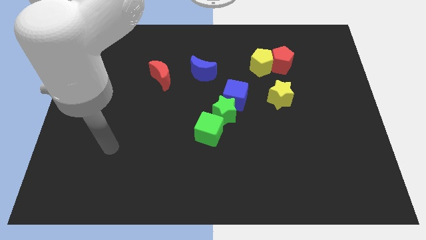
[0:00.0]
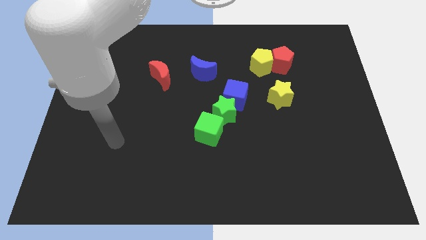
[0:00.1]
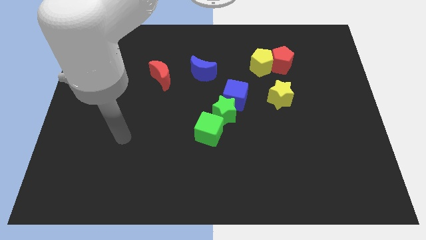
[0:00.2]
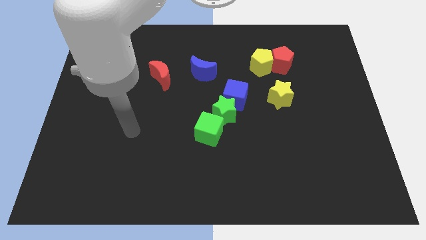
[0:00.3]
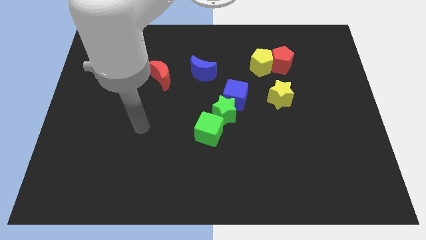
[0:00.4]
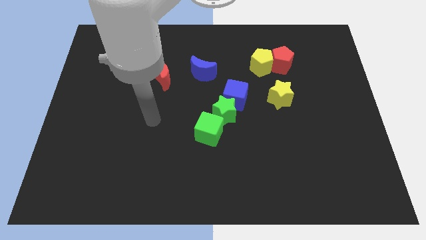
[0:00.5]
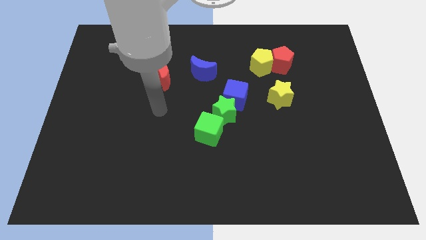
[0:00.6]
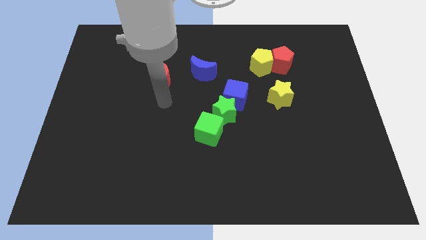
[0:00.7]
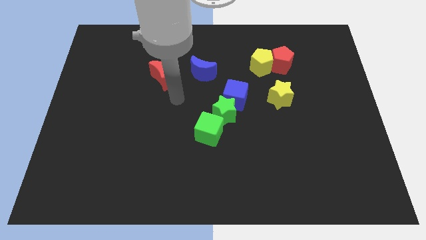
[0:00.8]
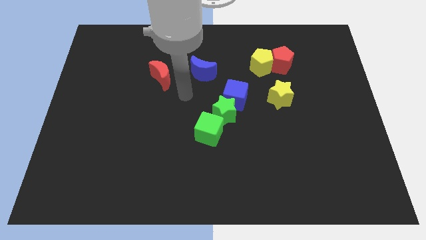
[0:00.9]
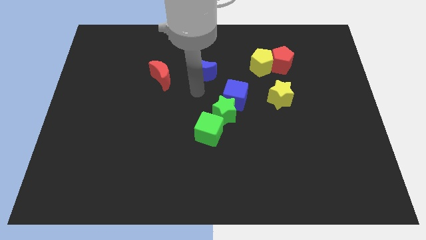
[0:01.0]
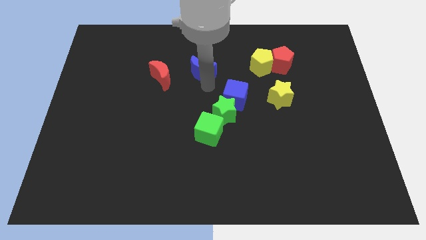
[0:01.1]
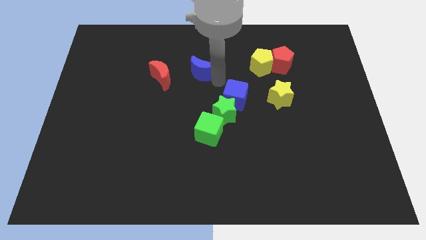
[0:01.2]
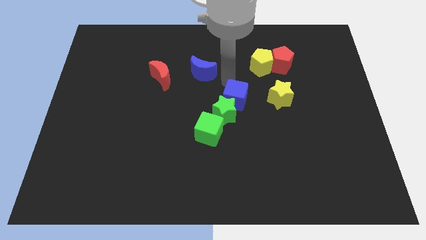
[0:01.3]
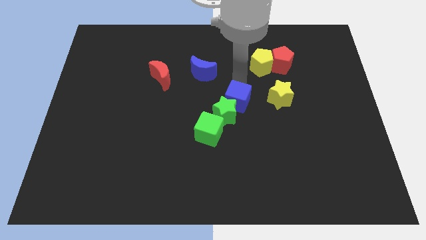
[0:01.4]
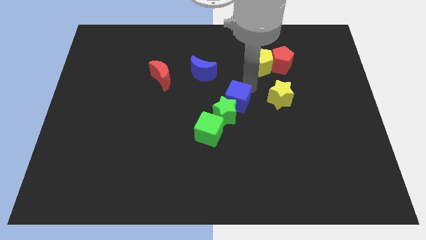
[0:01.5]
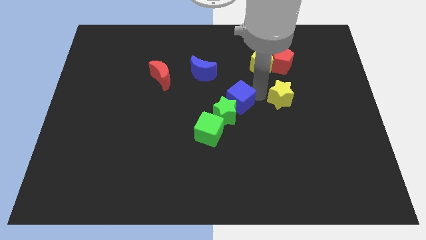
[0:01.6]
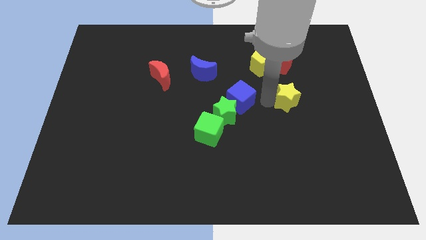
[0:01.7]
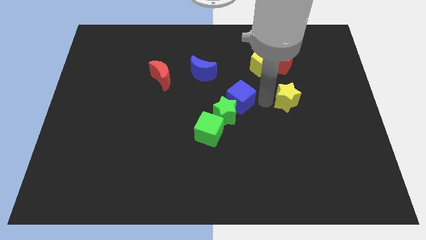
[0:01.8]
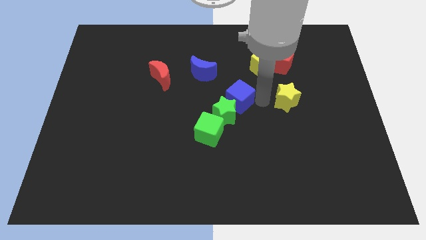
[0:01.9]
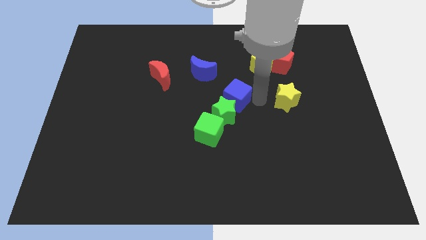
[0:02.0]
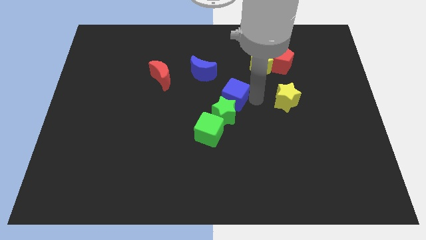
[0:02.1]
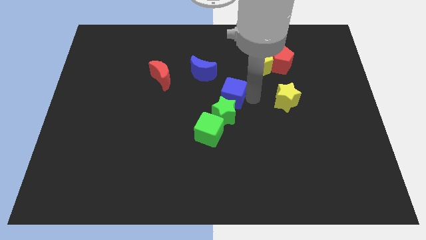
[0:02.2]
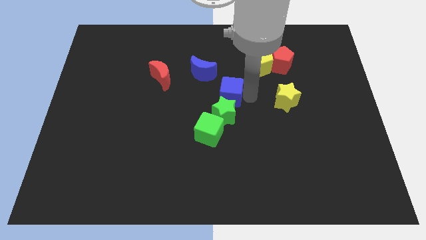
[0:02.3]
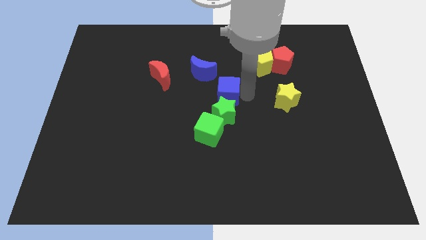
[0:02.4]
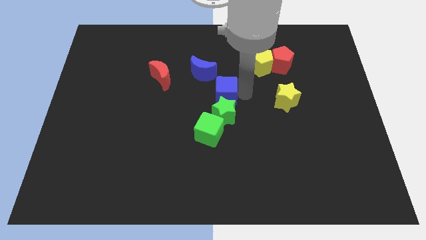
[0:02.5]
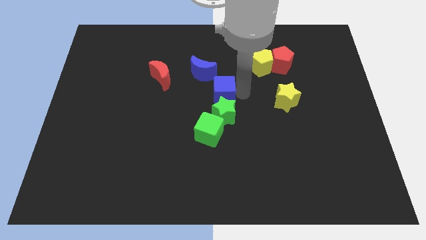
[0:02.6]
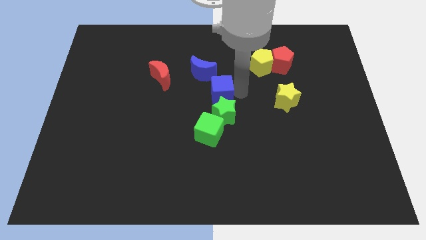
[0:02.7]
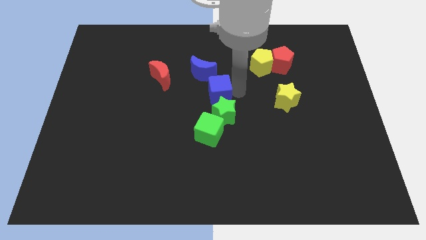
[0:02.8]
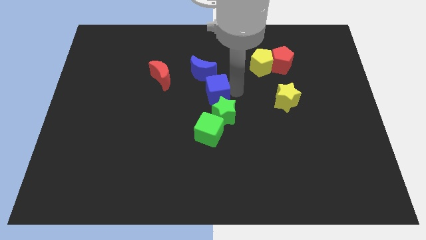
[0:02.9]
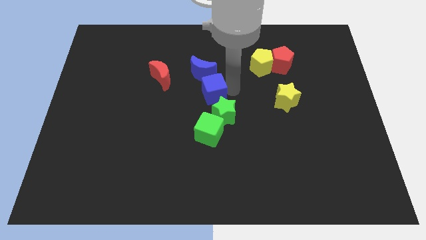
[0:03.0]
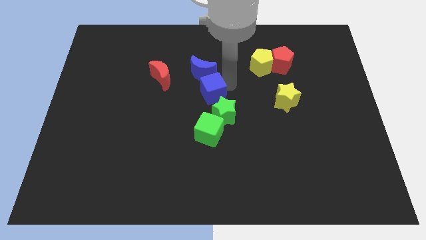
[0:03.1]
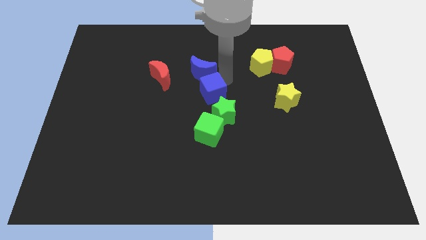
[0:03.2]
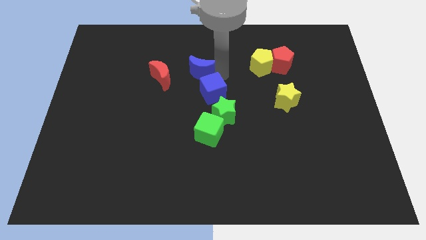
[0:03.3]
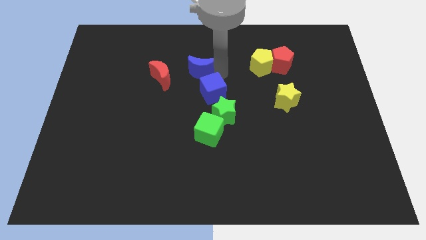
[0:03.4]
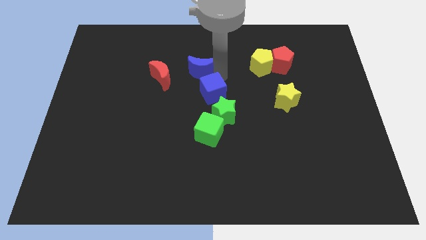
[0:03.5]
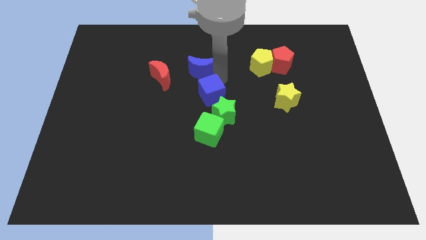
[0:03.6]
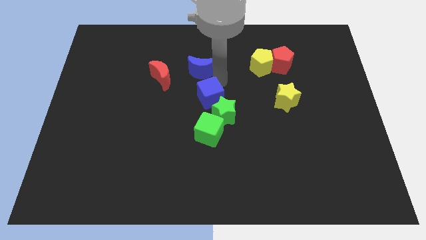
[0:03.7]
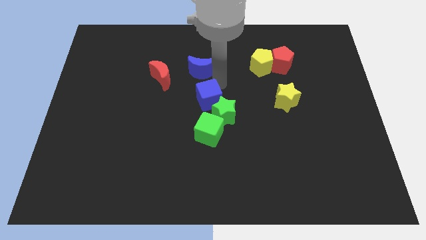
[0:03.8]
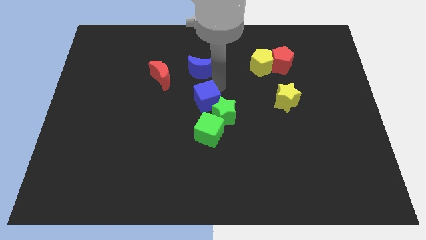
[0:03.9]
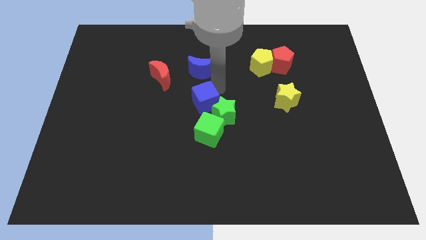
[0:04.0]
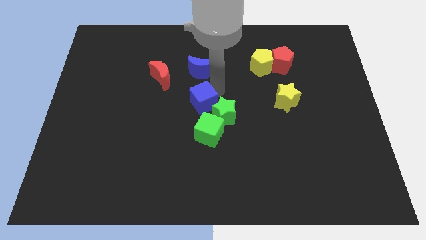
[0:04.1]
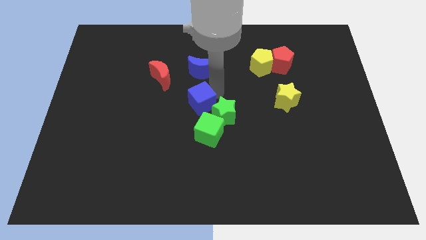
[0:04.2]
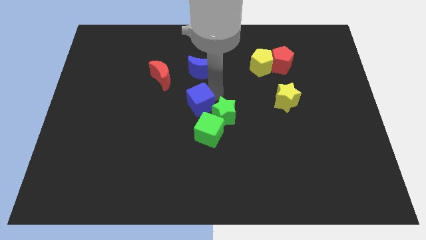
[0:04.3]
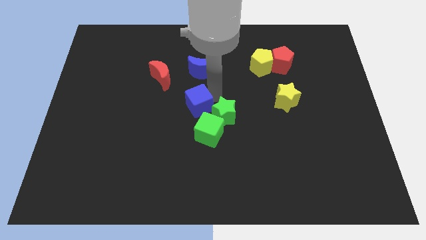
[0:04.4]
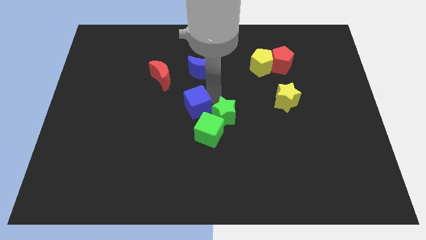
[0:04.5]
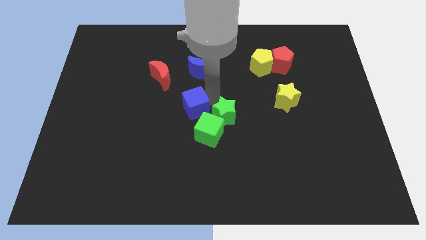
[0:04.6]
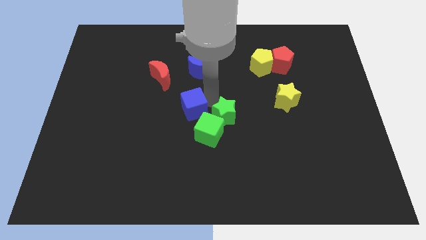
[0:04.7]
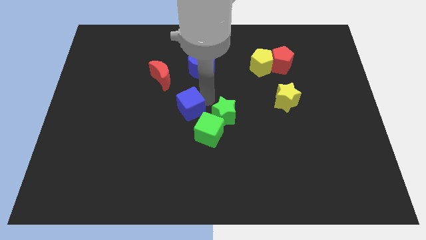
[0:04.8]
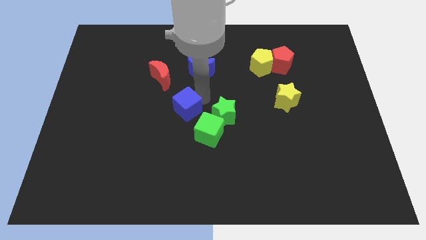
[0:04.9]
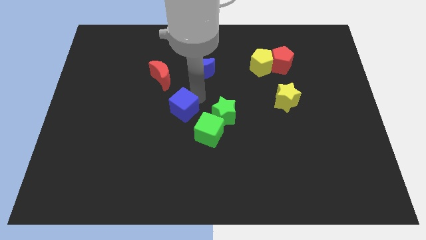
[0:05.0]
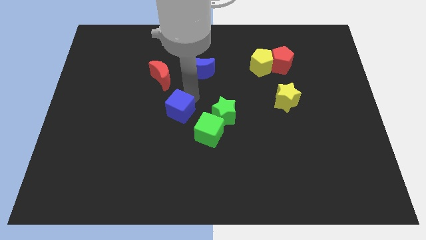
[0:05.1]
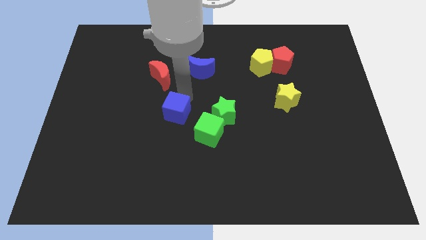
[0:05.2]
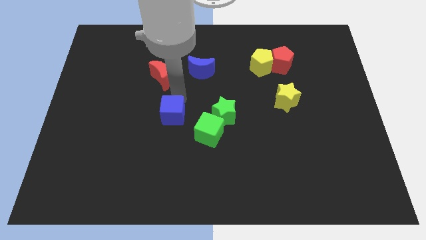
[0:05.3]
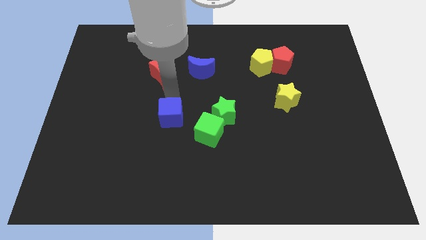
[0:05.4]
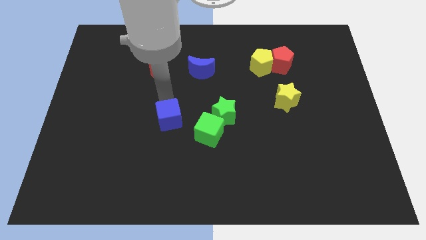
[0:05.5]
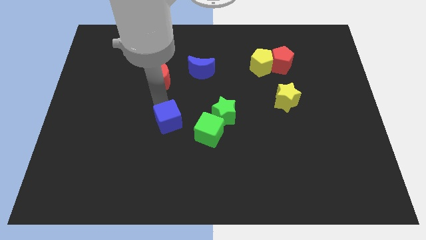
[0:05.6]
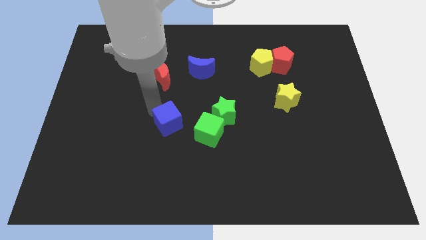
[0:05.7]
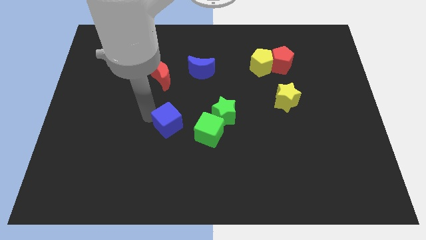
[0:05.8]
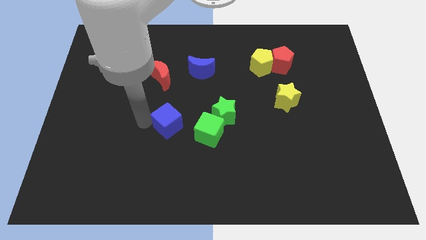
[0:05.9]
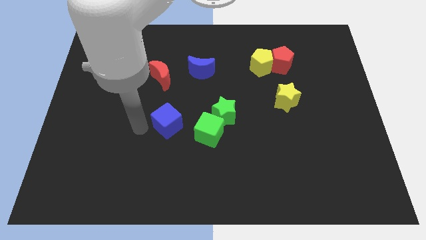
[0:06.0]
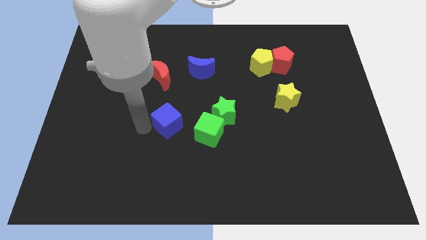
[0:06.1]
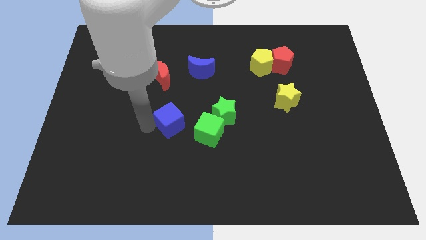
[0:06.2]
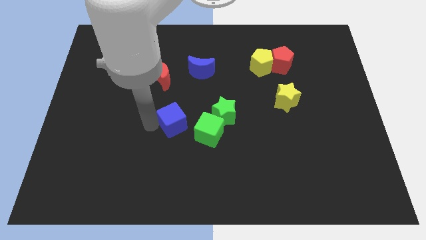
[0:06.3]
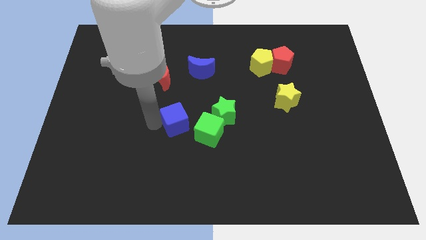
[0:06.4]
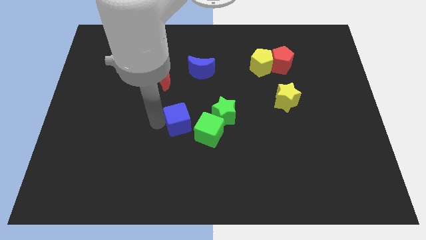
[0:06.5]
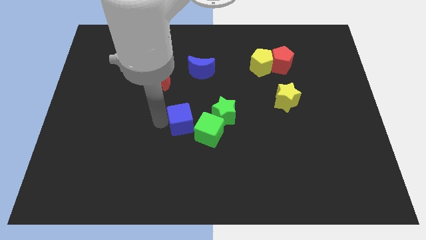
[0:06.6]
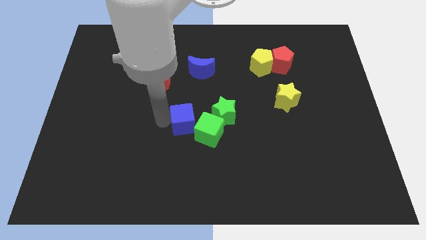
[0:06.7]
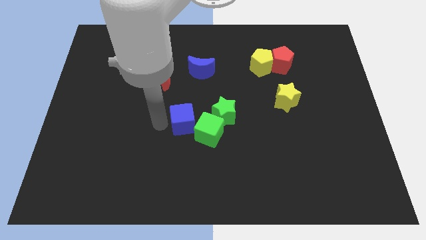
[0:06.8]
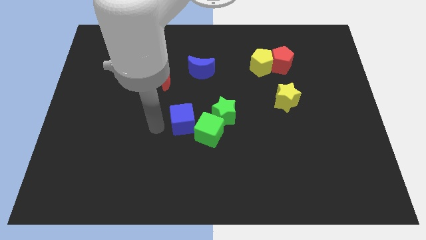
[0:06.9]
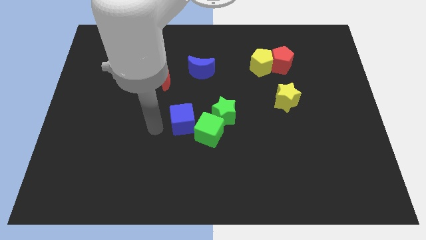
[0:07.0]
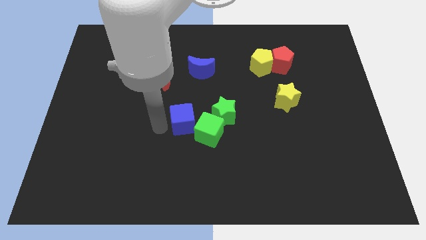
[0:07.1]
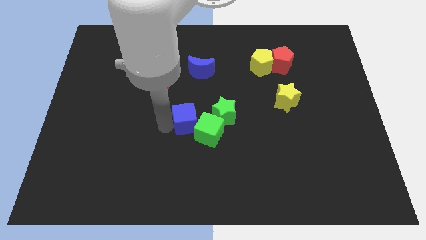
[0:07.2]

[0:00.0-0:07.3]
push the blue cube close to the green cube

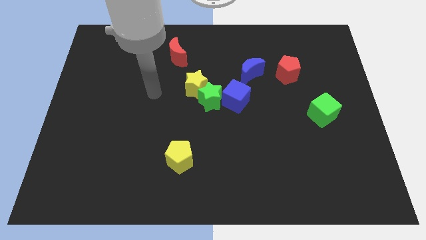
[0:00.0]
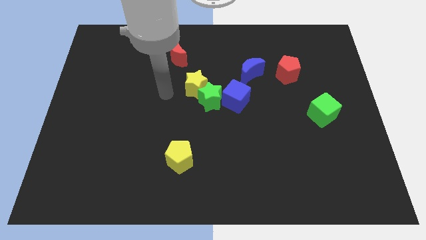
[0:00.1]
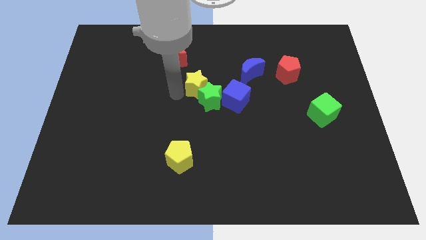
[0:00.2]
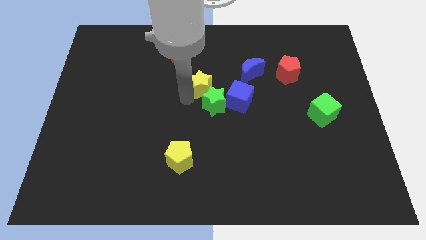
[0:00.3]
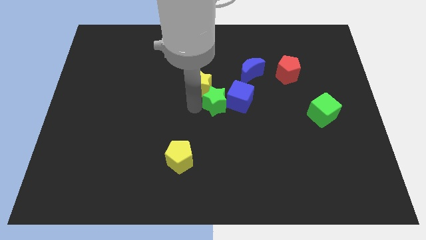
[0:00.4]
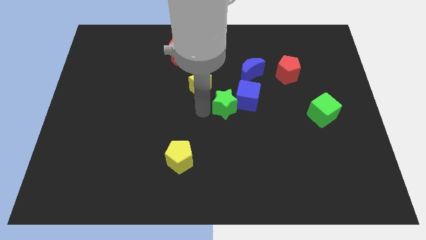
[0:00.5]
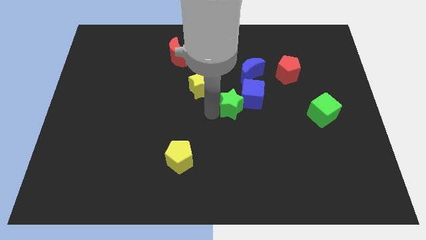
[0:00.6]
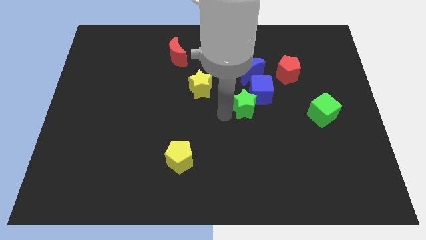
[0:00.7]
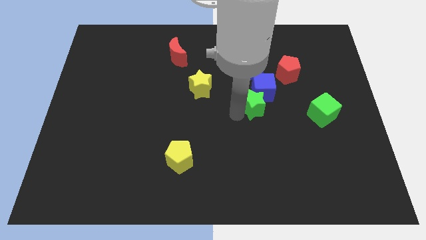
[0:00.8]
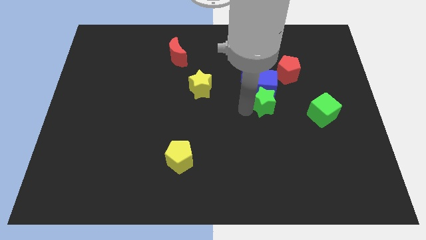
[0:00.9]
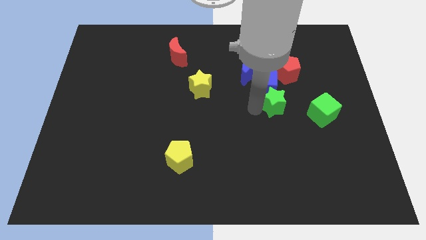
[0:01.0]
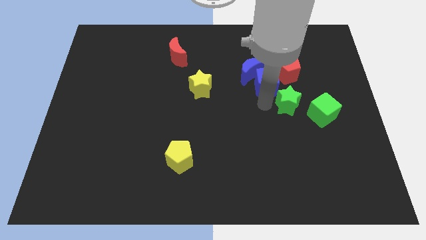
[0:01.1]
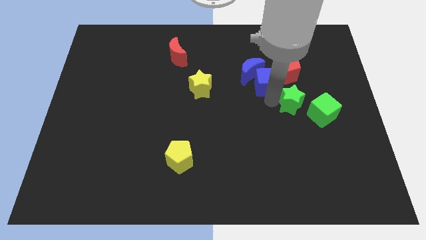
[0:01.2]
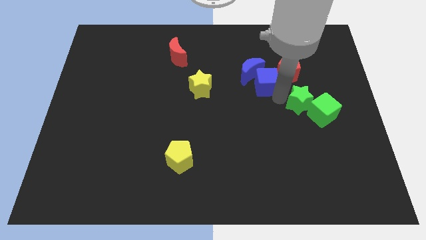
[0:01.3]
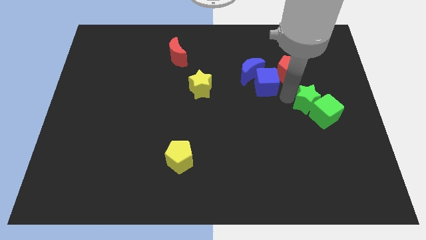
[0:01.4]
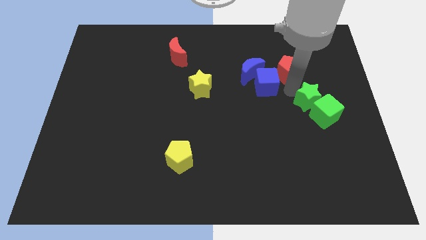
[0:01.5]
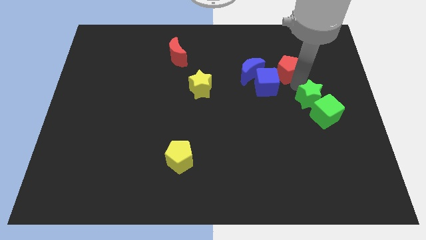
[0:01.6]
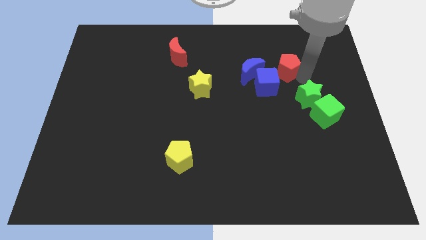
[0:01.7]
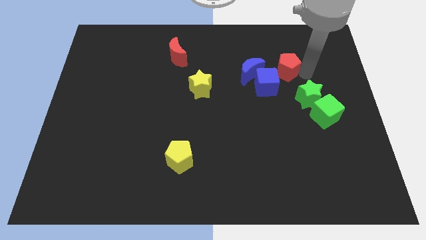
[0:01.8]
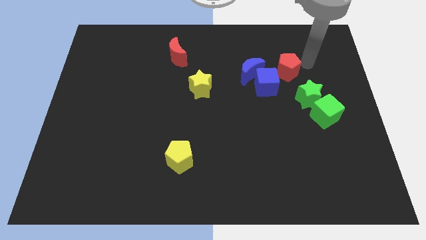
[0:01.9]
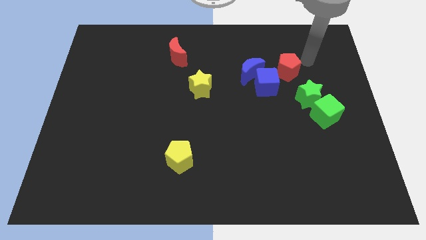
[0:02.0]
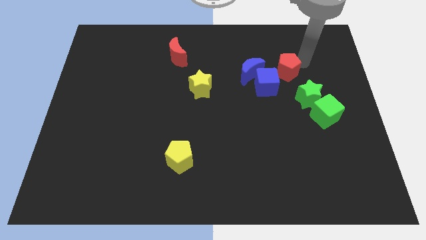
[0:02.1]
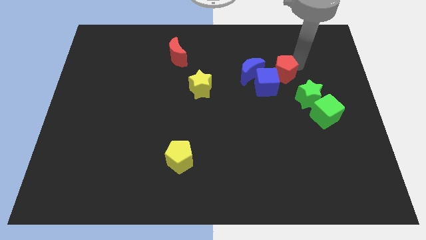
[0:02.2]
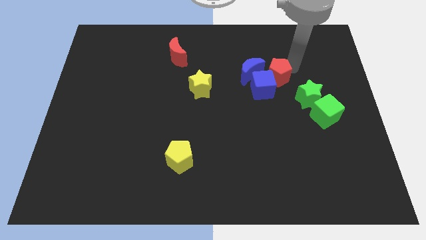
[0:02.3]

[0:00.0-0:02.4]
move the red pentagon to the blue cube
